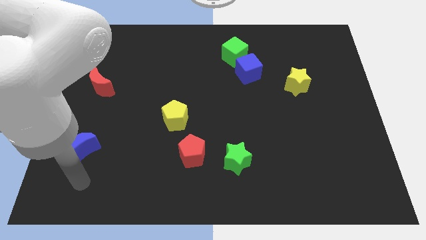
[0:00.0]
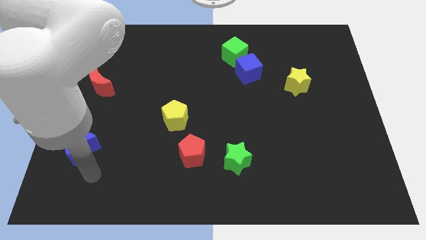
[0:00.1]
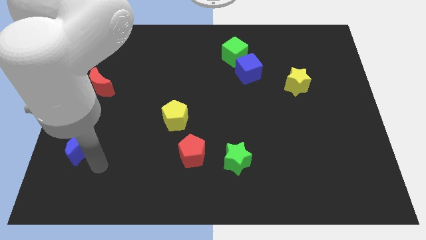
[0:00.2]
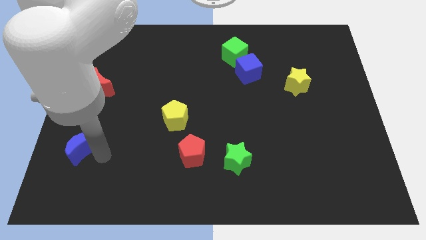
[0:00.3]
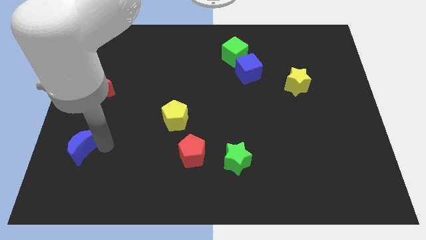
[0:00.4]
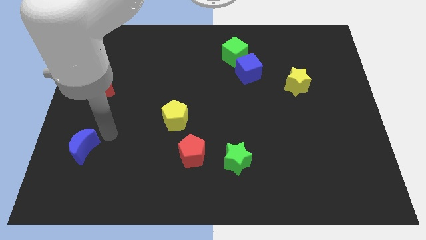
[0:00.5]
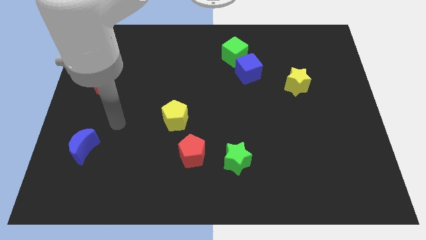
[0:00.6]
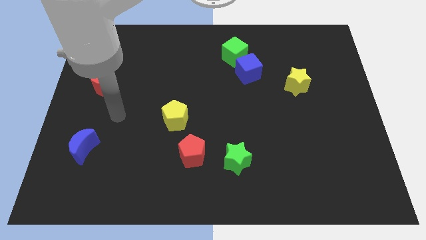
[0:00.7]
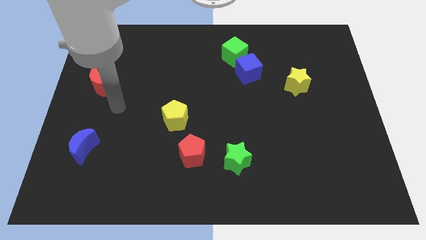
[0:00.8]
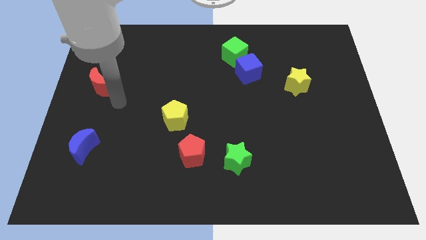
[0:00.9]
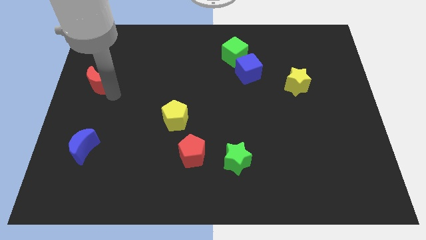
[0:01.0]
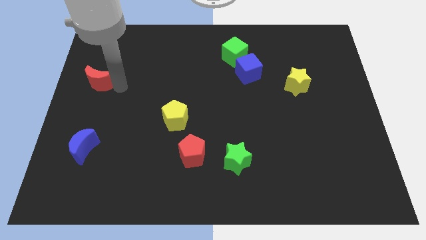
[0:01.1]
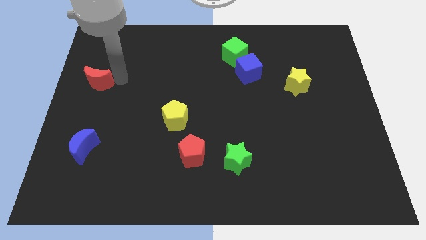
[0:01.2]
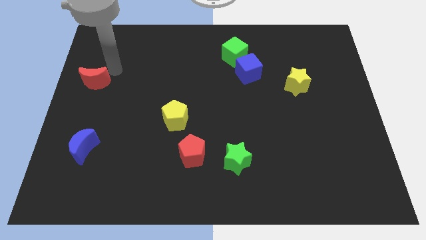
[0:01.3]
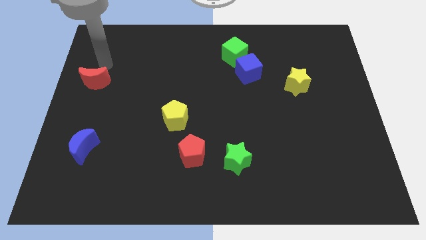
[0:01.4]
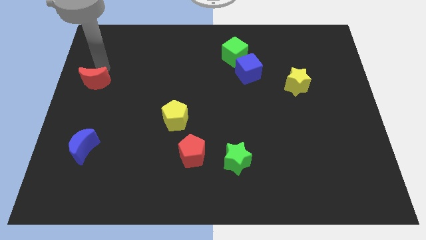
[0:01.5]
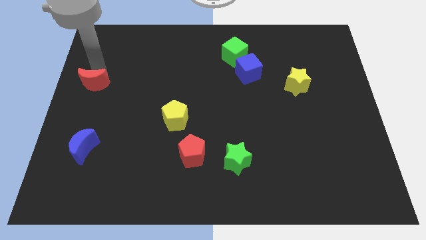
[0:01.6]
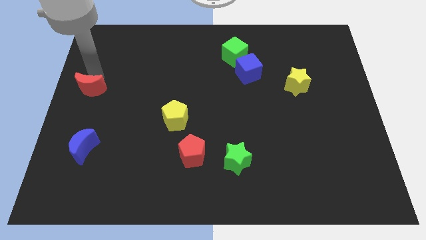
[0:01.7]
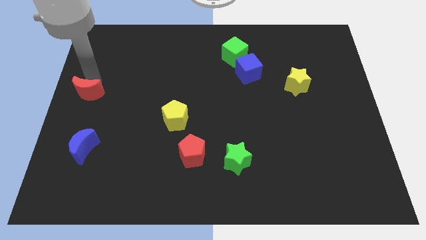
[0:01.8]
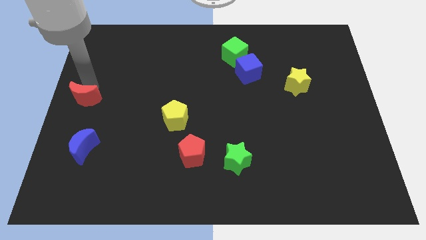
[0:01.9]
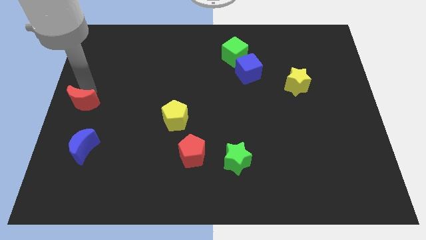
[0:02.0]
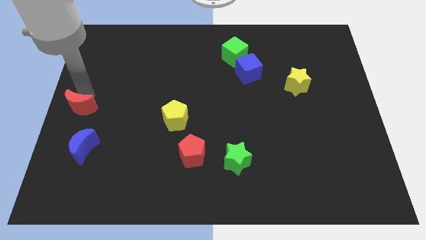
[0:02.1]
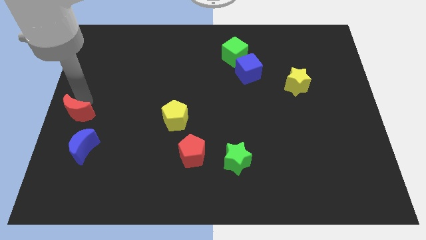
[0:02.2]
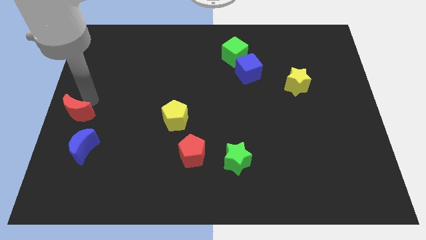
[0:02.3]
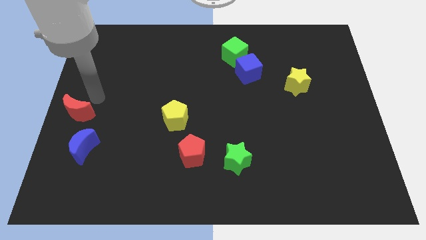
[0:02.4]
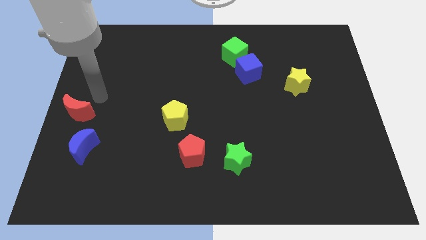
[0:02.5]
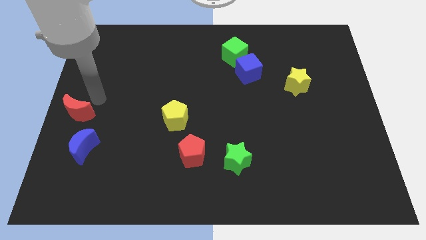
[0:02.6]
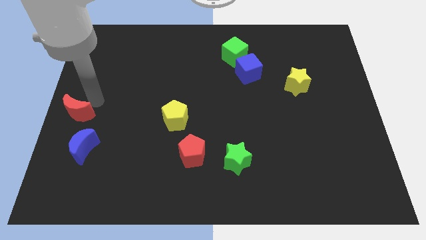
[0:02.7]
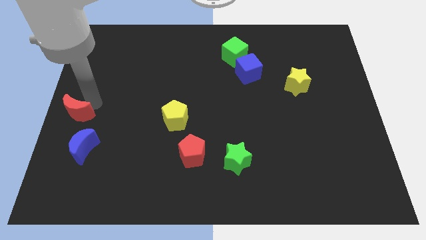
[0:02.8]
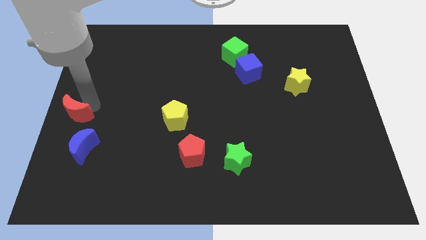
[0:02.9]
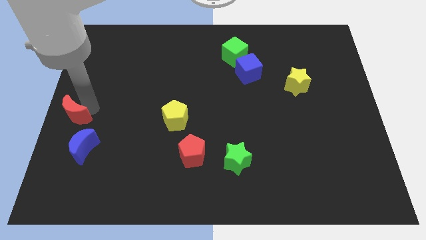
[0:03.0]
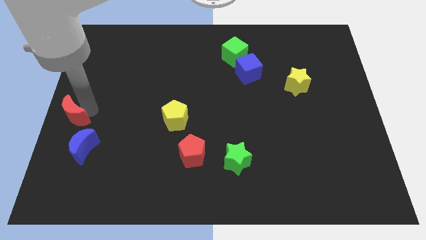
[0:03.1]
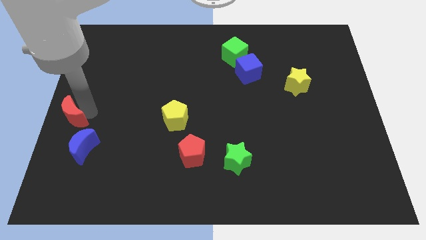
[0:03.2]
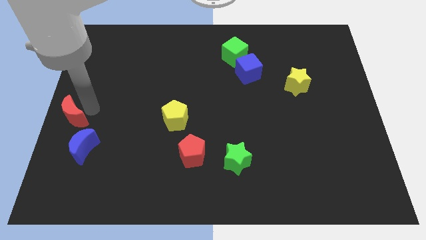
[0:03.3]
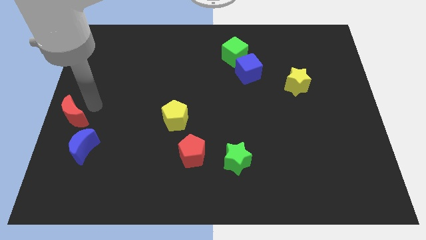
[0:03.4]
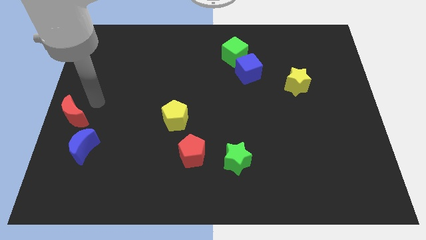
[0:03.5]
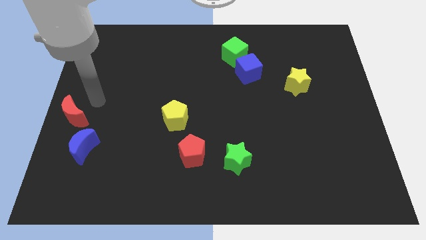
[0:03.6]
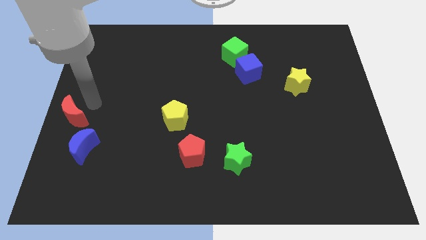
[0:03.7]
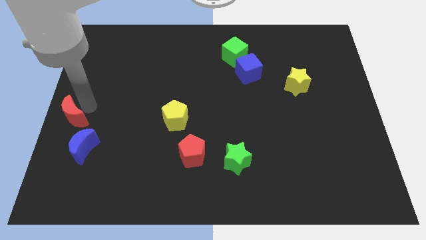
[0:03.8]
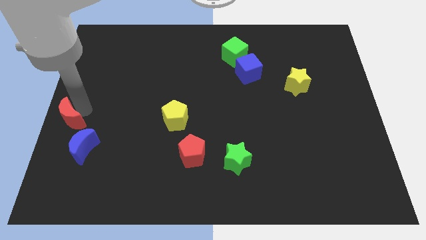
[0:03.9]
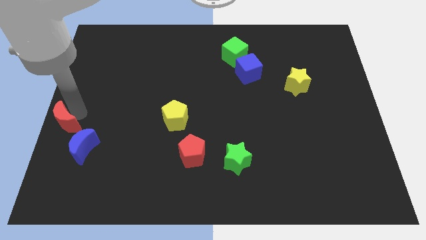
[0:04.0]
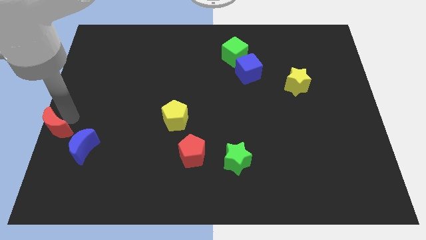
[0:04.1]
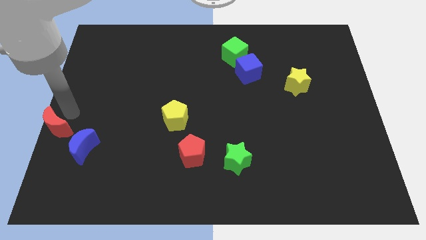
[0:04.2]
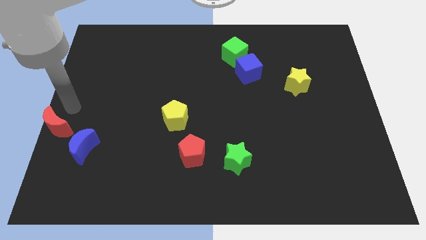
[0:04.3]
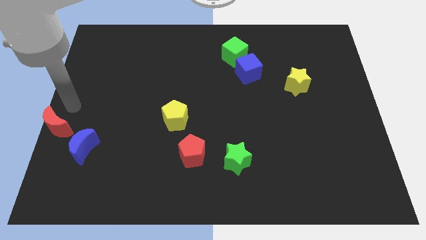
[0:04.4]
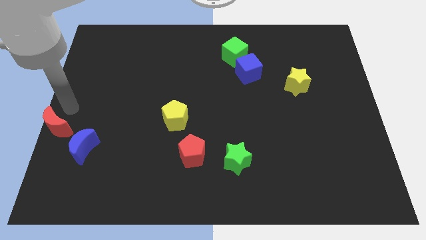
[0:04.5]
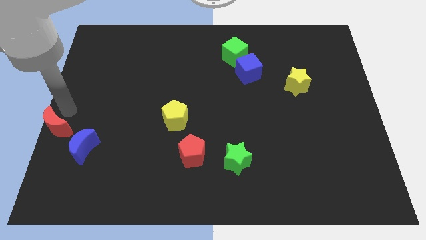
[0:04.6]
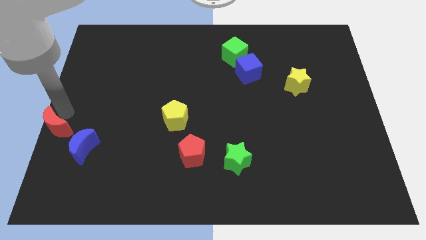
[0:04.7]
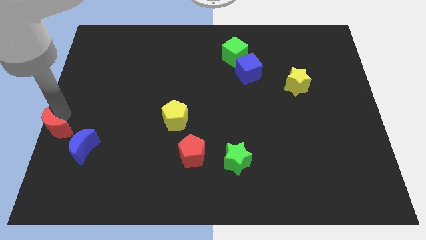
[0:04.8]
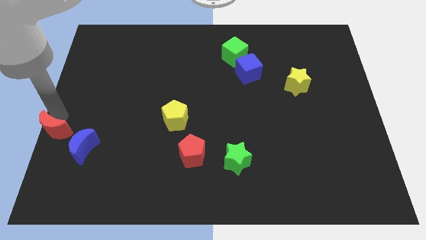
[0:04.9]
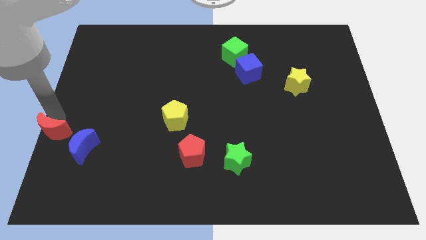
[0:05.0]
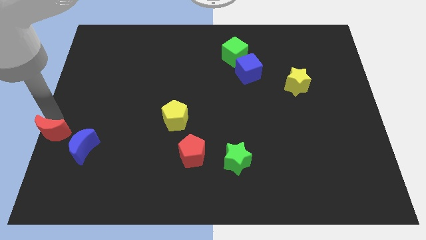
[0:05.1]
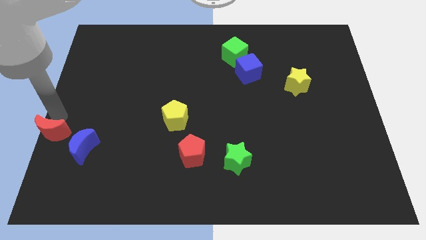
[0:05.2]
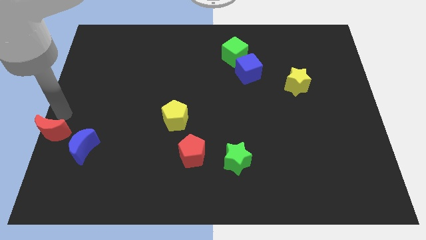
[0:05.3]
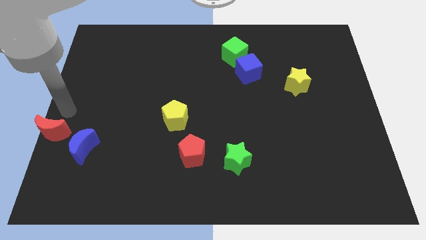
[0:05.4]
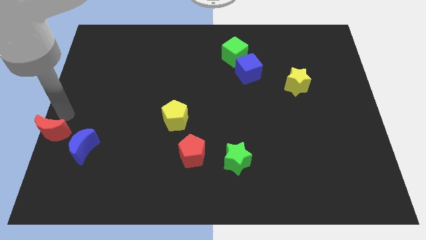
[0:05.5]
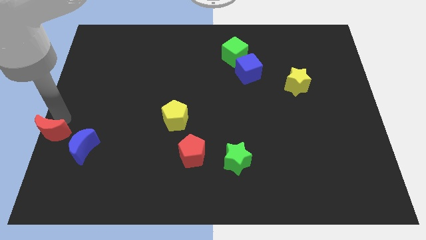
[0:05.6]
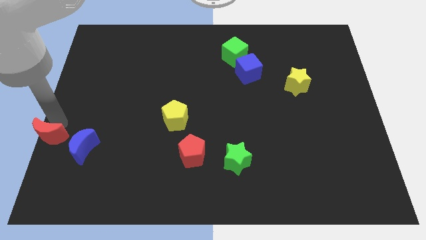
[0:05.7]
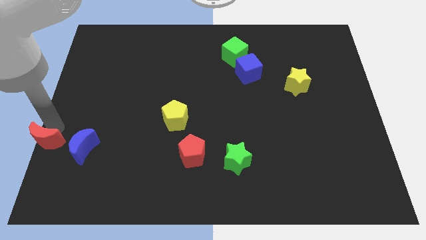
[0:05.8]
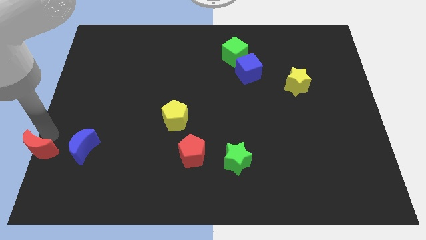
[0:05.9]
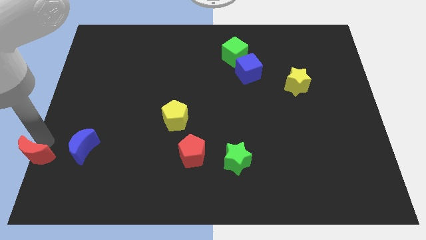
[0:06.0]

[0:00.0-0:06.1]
push the red moon to the bottom left

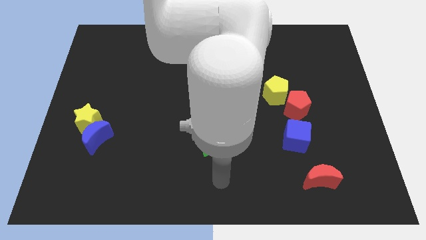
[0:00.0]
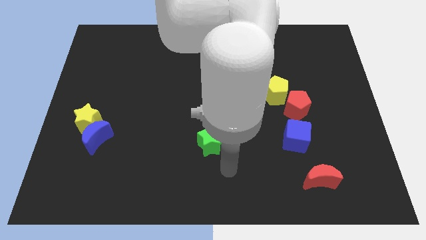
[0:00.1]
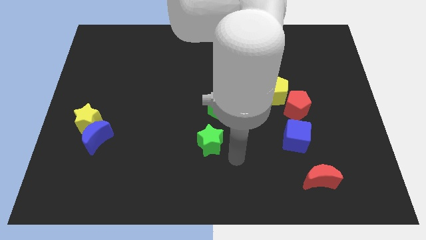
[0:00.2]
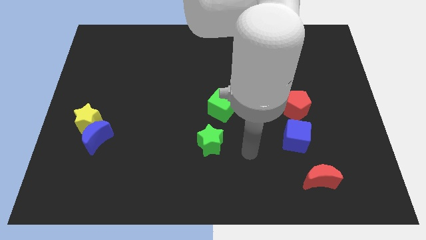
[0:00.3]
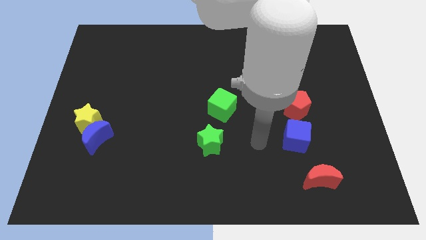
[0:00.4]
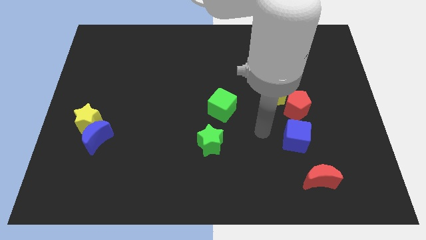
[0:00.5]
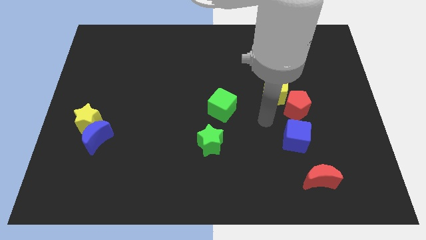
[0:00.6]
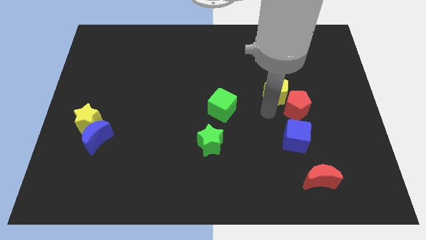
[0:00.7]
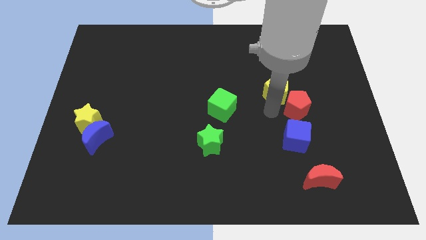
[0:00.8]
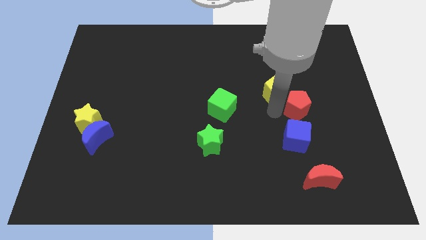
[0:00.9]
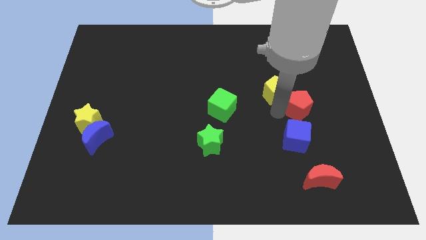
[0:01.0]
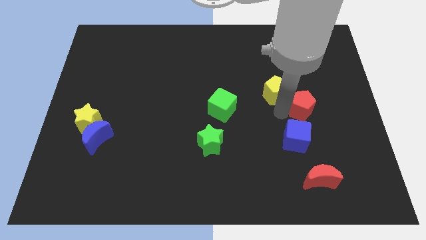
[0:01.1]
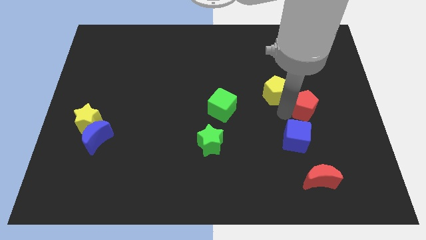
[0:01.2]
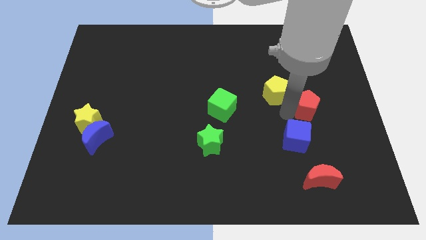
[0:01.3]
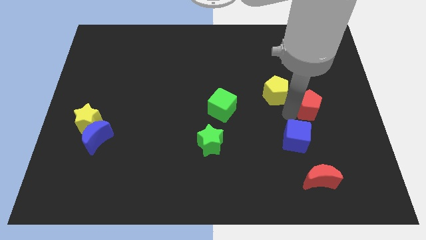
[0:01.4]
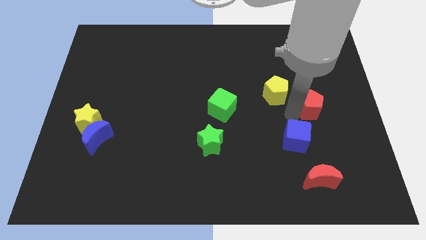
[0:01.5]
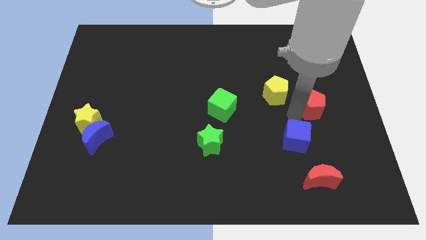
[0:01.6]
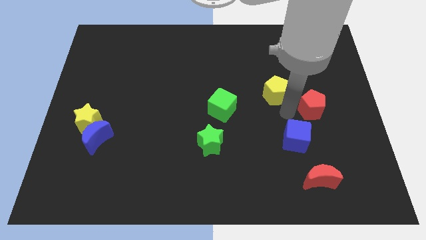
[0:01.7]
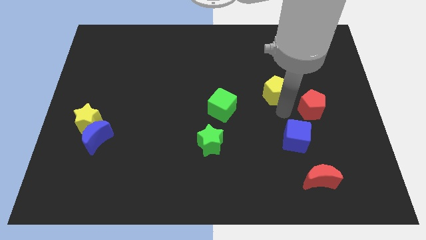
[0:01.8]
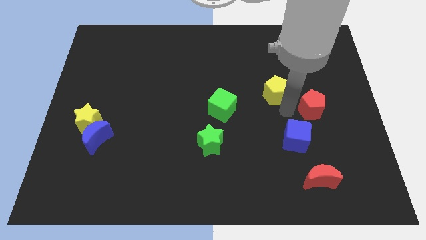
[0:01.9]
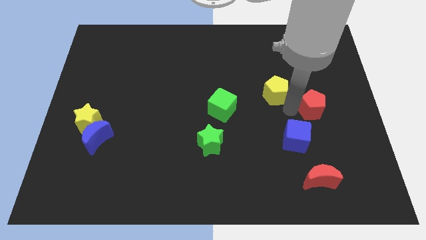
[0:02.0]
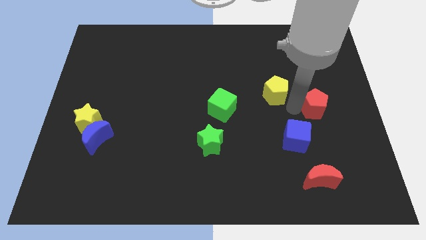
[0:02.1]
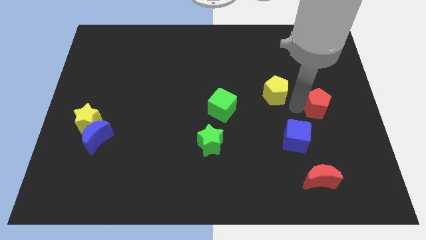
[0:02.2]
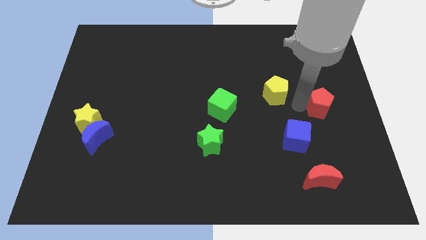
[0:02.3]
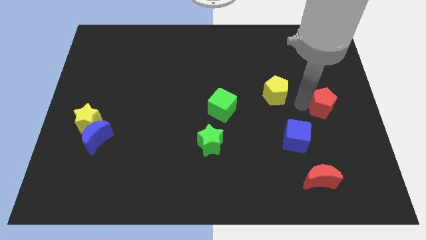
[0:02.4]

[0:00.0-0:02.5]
slide the red pentagon to the right side of the board
